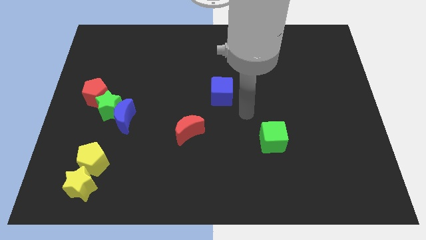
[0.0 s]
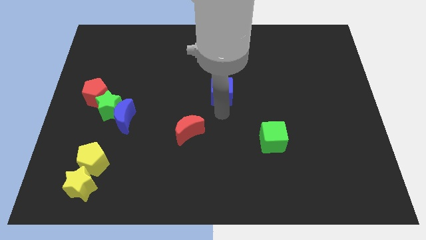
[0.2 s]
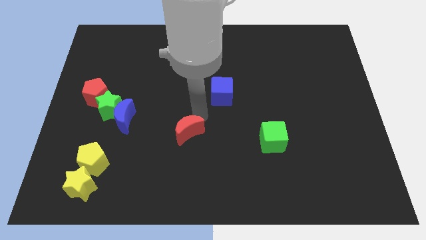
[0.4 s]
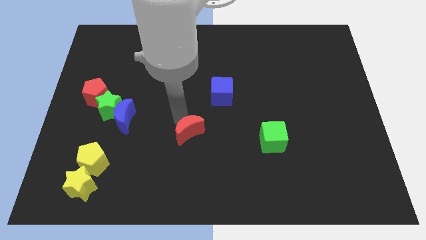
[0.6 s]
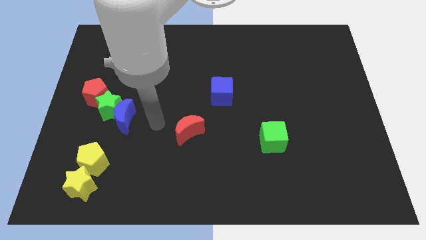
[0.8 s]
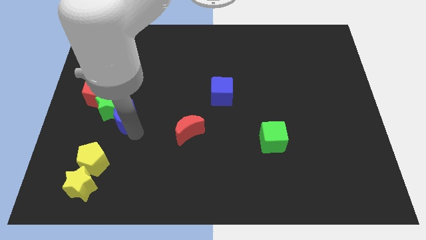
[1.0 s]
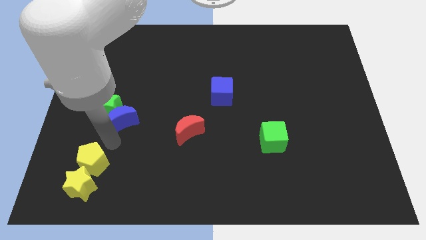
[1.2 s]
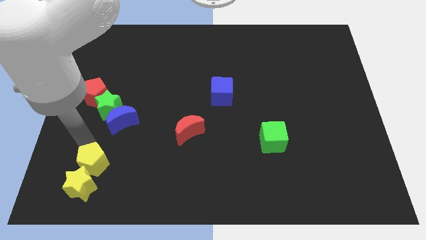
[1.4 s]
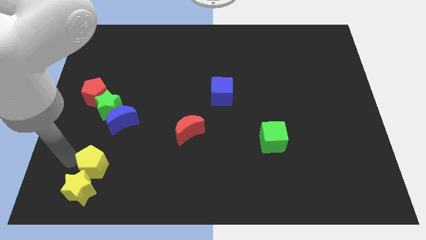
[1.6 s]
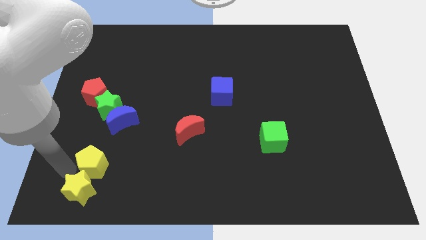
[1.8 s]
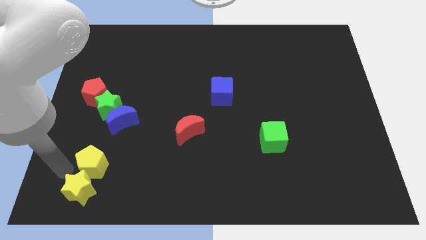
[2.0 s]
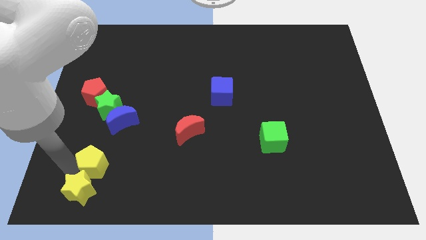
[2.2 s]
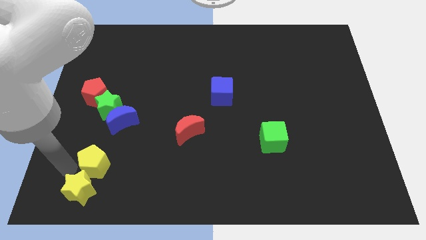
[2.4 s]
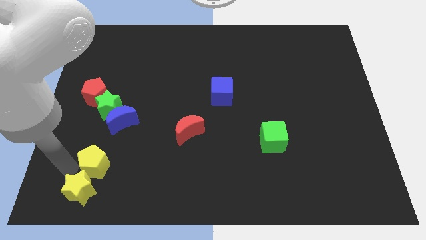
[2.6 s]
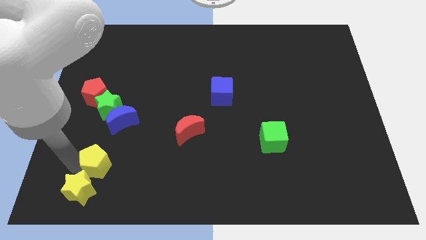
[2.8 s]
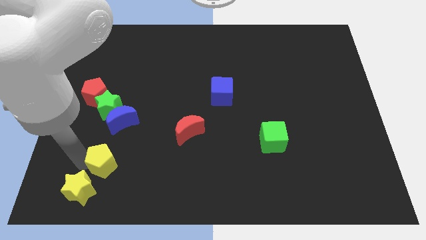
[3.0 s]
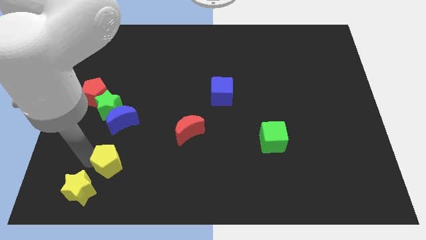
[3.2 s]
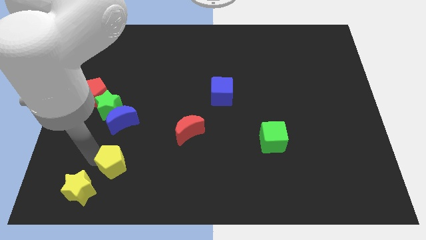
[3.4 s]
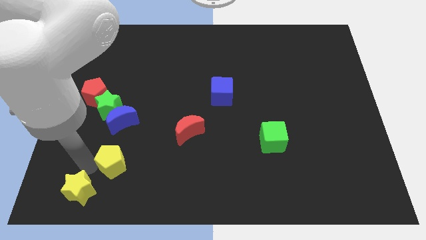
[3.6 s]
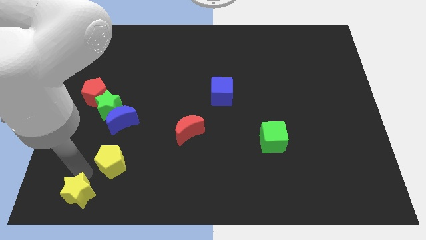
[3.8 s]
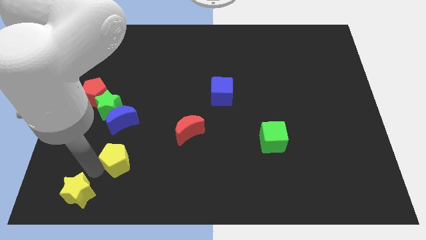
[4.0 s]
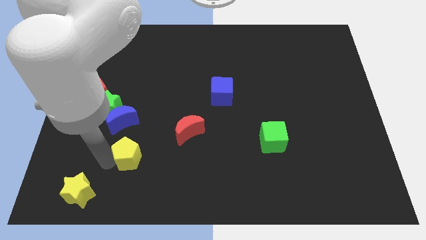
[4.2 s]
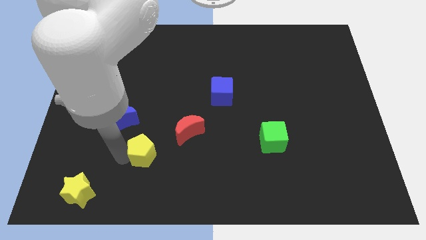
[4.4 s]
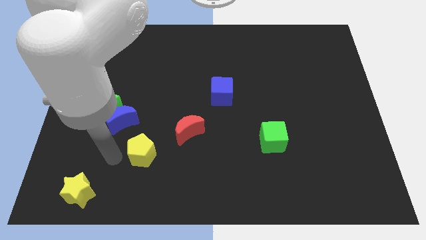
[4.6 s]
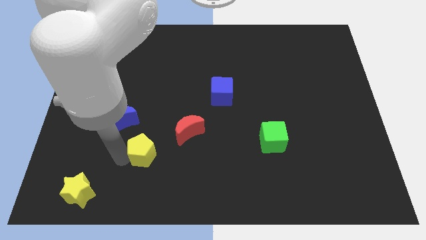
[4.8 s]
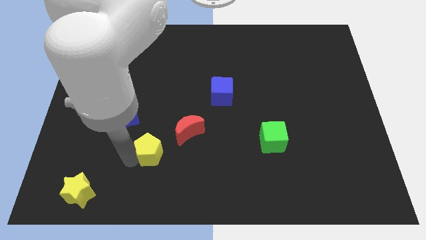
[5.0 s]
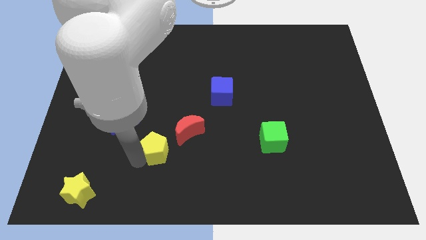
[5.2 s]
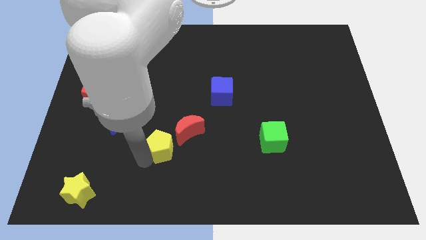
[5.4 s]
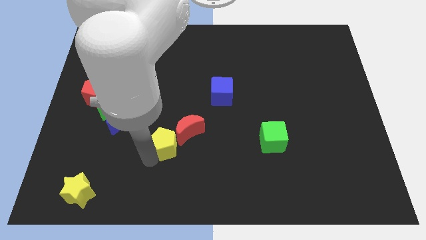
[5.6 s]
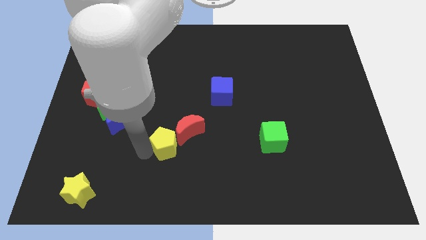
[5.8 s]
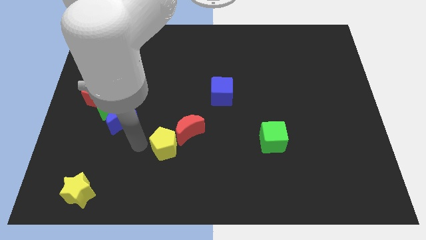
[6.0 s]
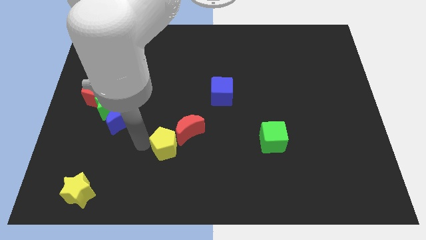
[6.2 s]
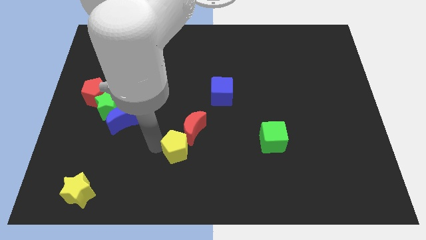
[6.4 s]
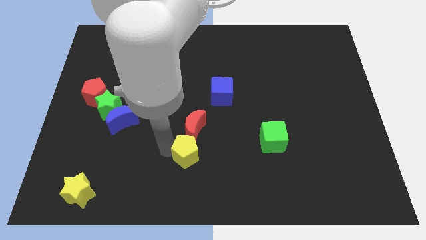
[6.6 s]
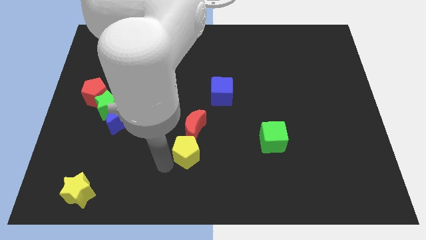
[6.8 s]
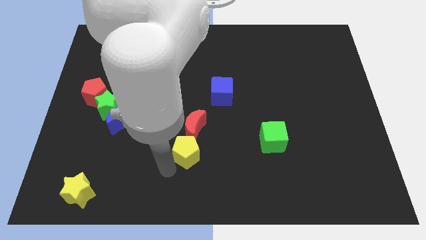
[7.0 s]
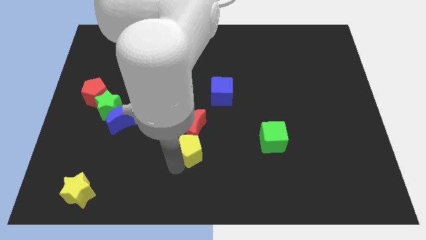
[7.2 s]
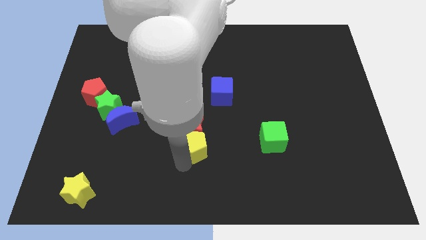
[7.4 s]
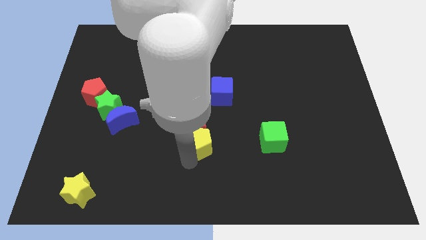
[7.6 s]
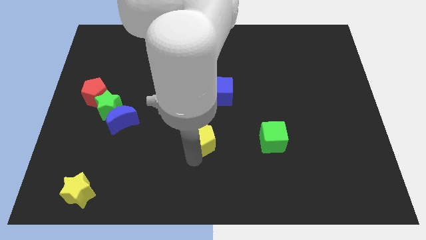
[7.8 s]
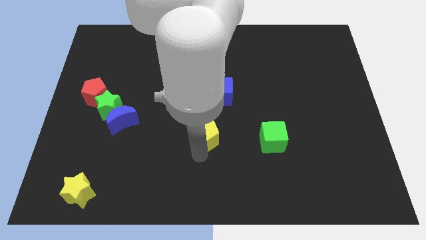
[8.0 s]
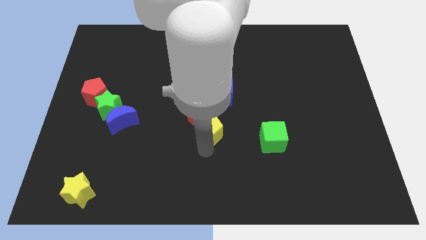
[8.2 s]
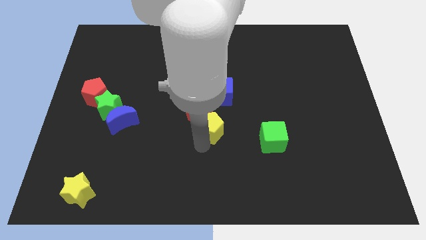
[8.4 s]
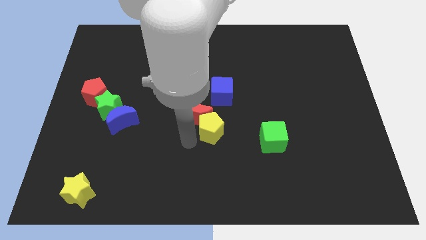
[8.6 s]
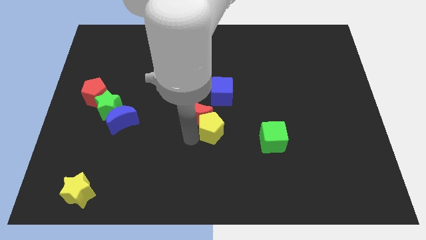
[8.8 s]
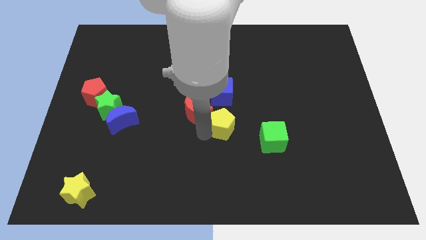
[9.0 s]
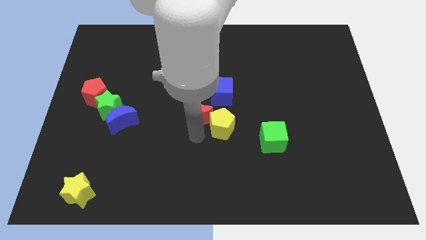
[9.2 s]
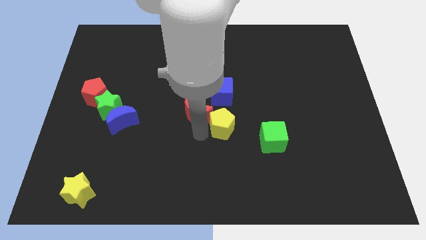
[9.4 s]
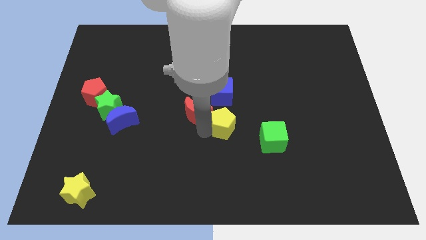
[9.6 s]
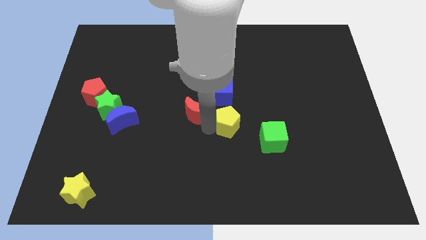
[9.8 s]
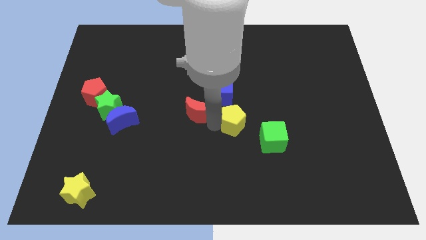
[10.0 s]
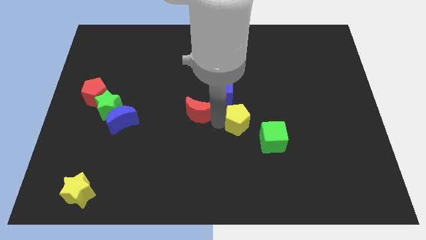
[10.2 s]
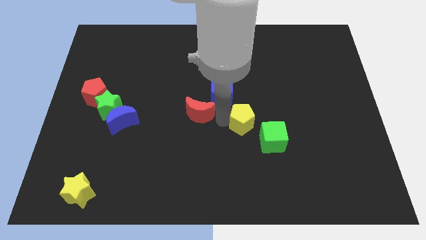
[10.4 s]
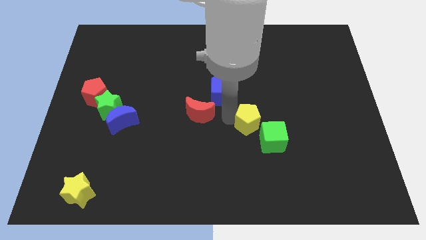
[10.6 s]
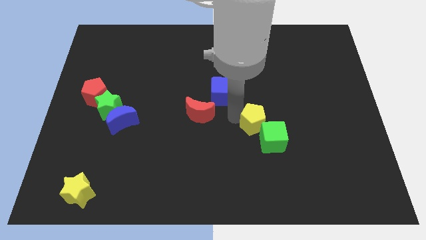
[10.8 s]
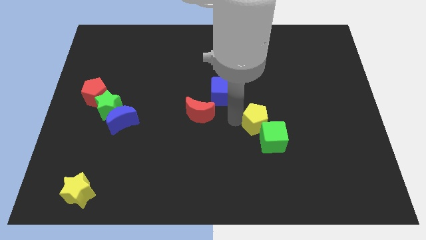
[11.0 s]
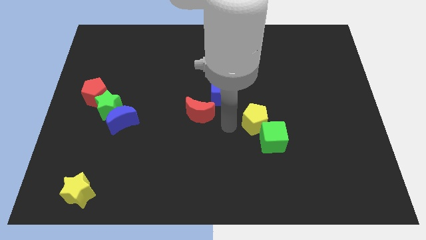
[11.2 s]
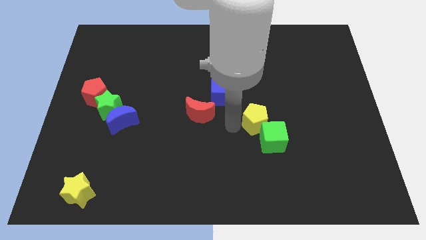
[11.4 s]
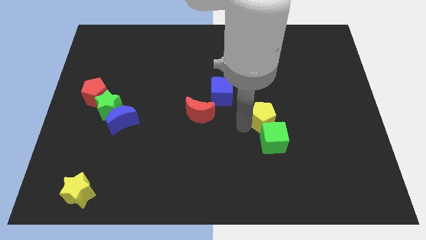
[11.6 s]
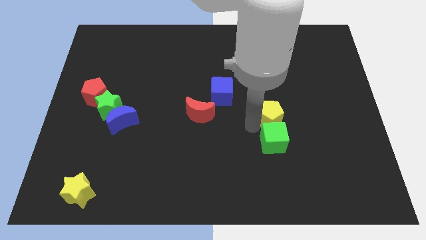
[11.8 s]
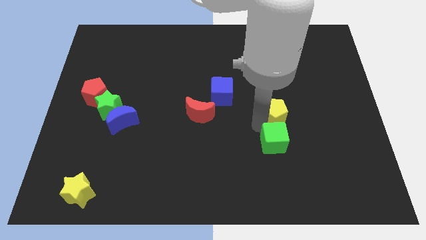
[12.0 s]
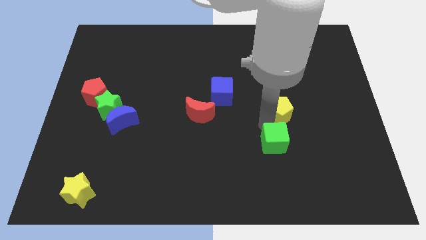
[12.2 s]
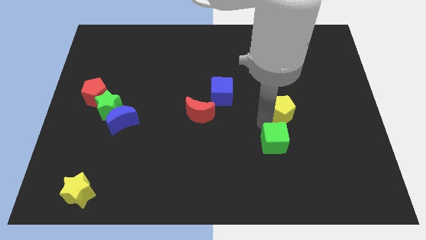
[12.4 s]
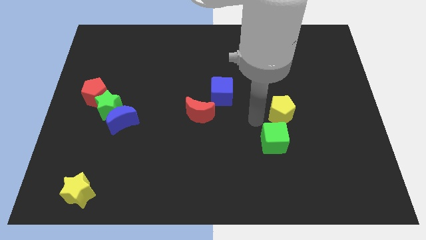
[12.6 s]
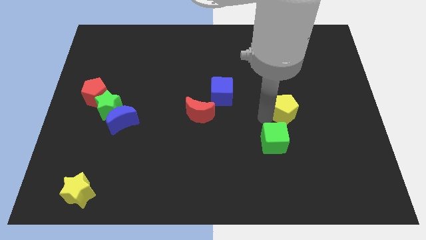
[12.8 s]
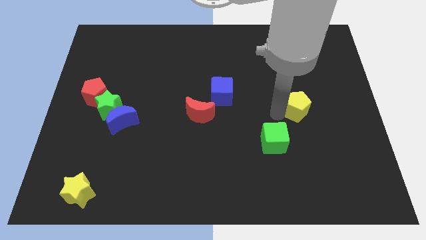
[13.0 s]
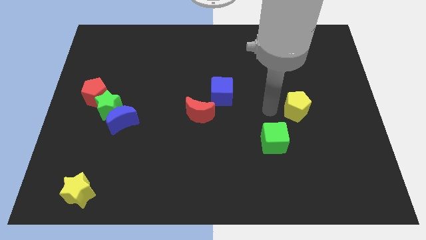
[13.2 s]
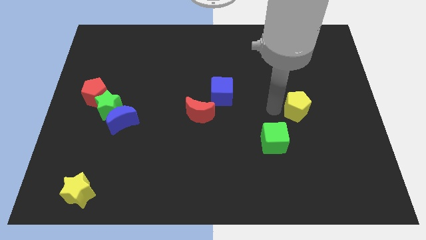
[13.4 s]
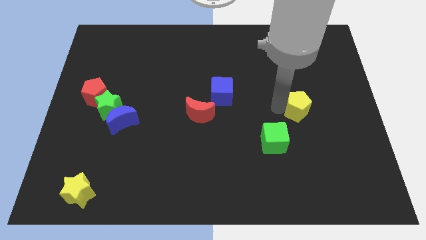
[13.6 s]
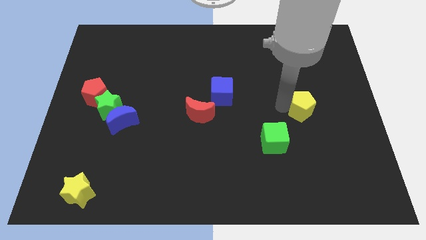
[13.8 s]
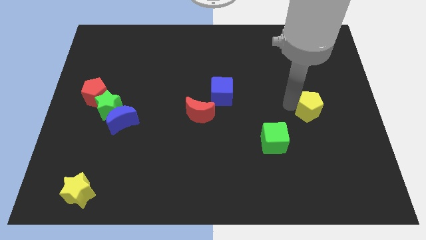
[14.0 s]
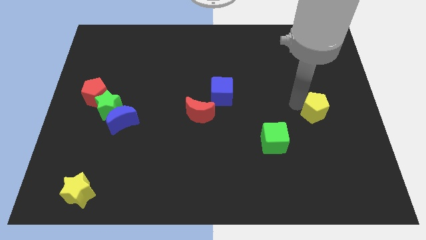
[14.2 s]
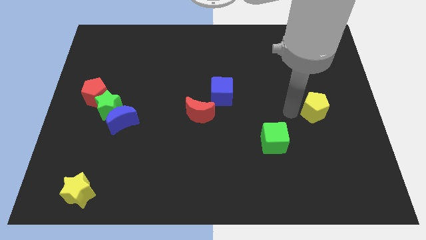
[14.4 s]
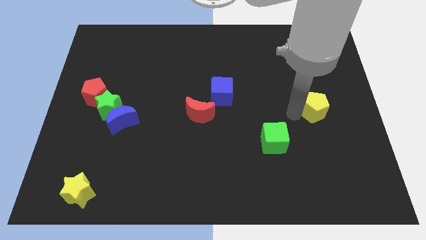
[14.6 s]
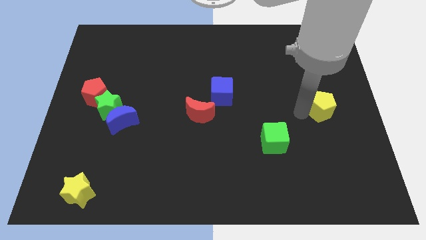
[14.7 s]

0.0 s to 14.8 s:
move the yellow pentagon to the center right

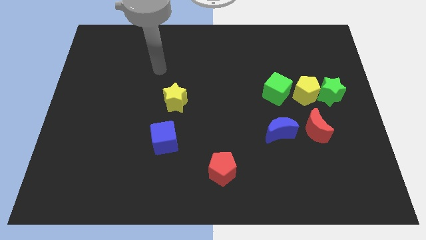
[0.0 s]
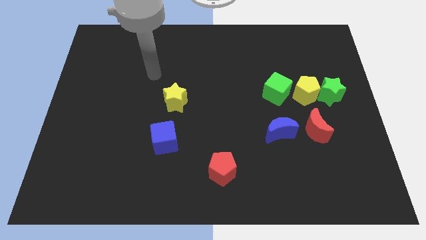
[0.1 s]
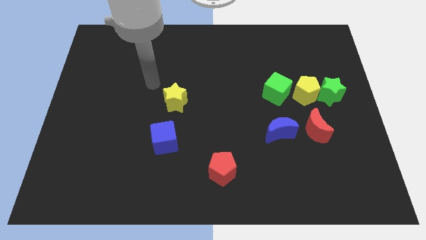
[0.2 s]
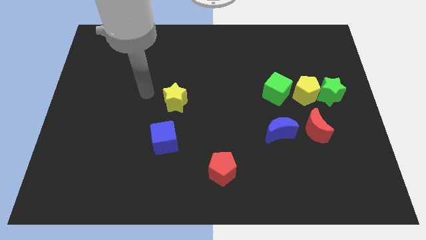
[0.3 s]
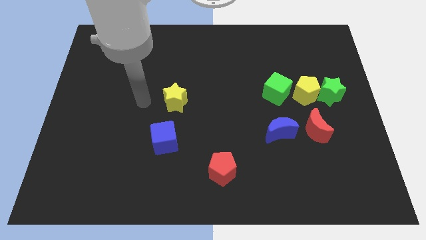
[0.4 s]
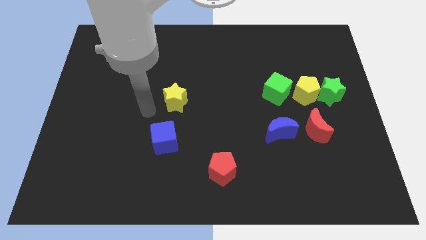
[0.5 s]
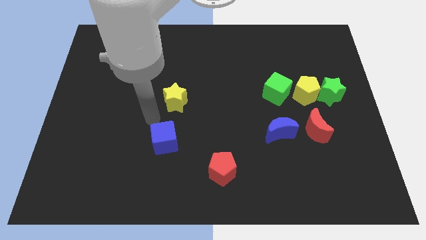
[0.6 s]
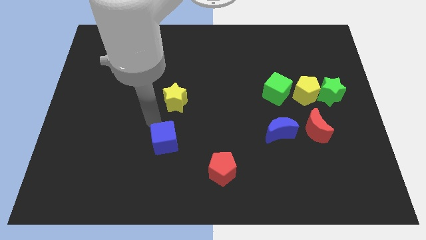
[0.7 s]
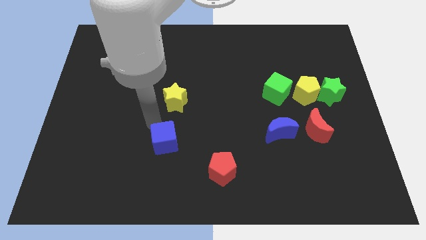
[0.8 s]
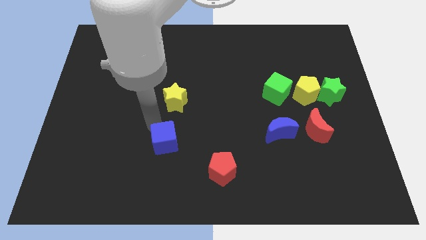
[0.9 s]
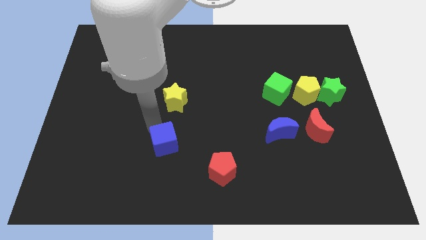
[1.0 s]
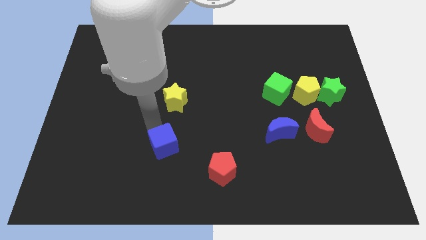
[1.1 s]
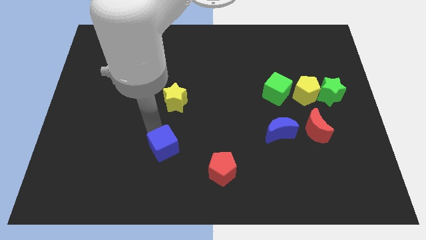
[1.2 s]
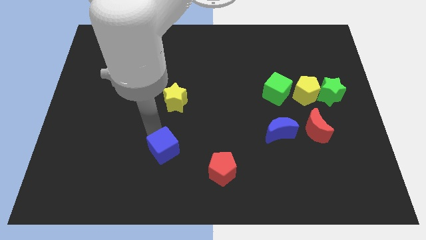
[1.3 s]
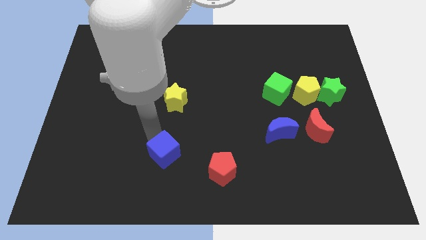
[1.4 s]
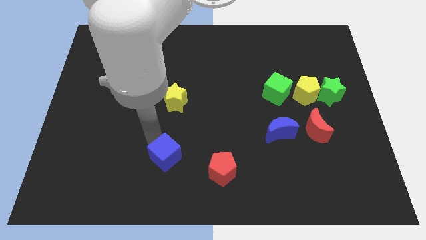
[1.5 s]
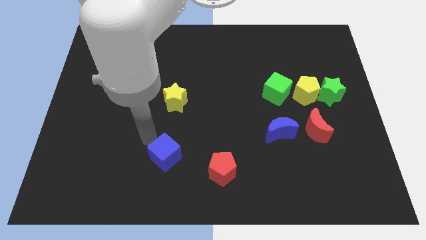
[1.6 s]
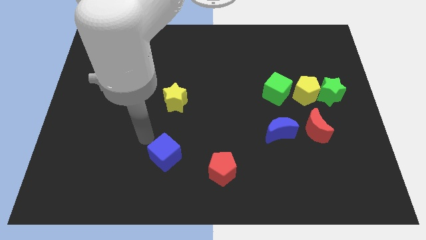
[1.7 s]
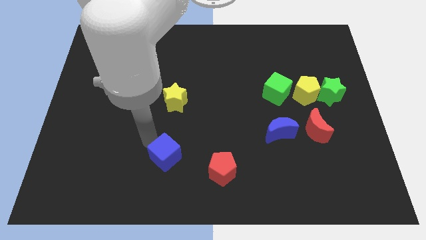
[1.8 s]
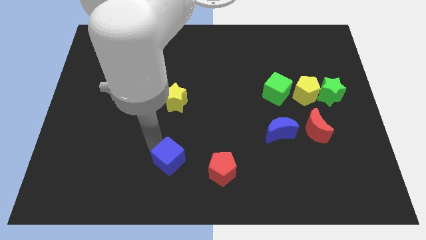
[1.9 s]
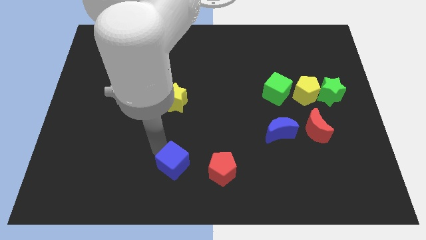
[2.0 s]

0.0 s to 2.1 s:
push the blue cube to the bottom
